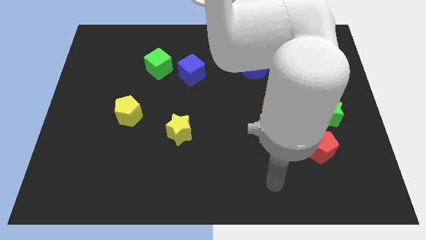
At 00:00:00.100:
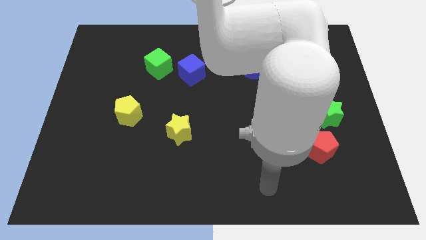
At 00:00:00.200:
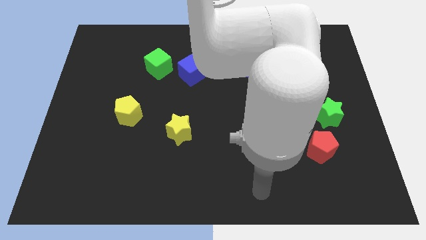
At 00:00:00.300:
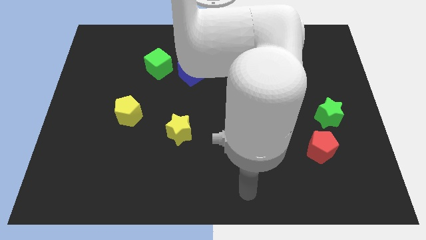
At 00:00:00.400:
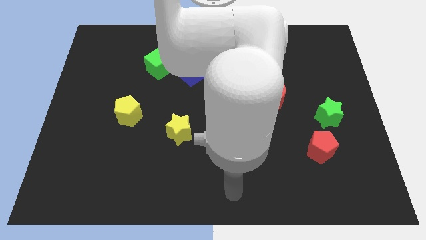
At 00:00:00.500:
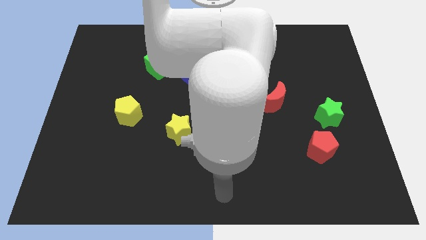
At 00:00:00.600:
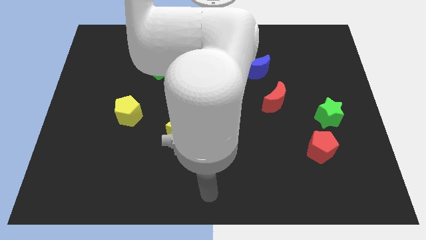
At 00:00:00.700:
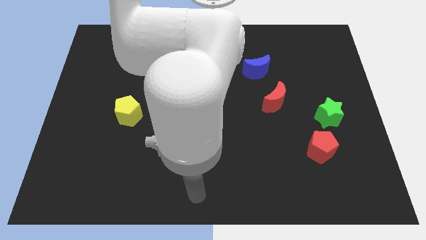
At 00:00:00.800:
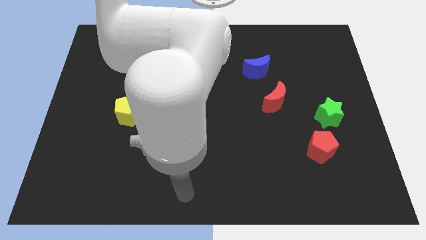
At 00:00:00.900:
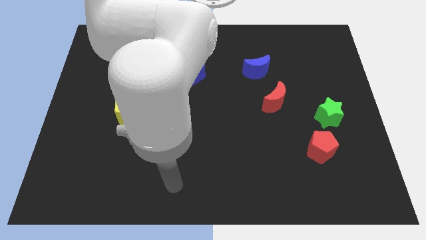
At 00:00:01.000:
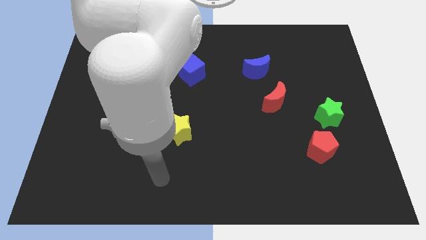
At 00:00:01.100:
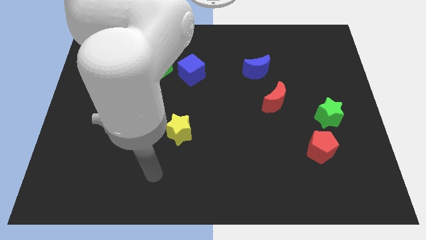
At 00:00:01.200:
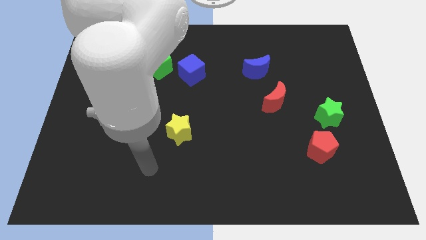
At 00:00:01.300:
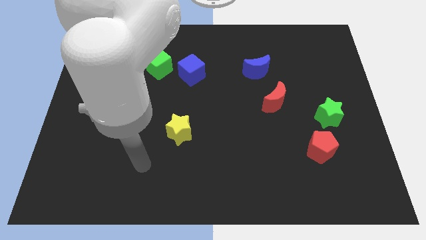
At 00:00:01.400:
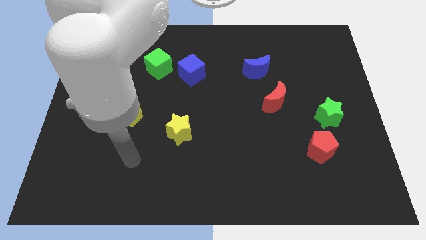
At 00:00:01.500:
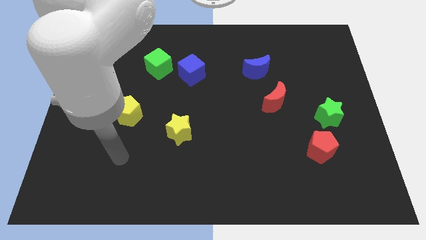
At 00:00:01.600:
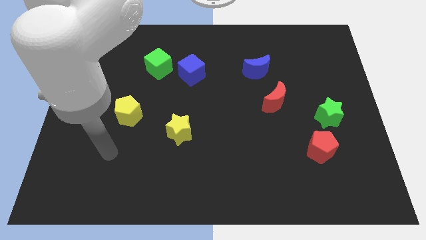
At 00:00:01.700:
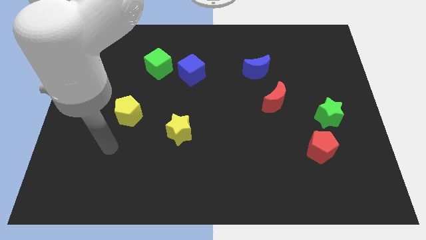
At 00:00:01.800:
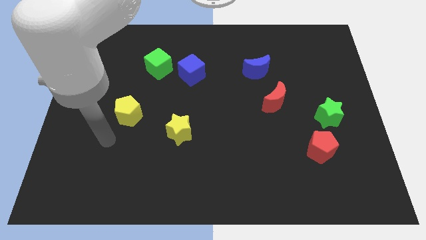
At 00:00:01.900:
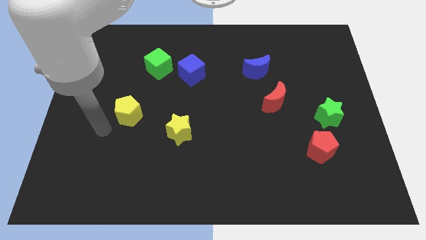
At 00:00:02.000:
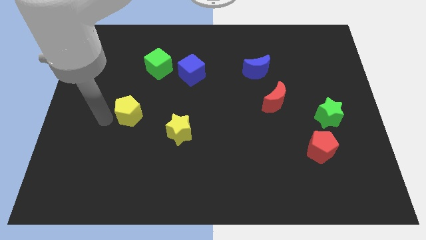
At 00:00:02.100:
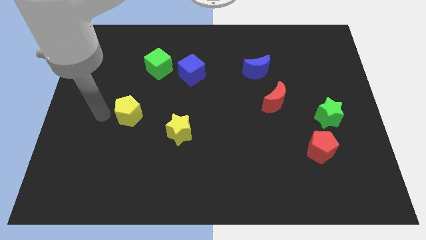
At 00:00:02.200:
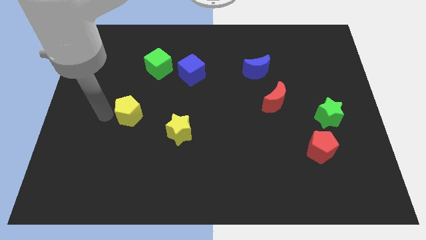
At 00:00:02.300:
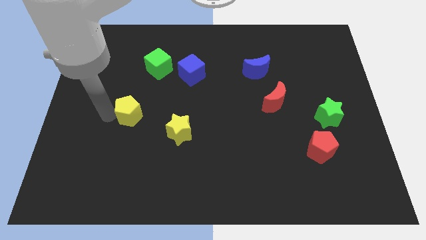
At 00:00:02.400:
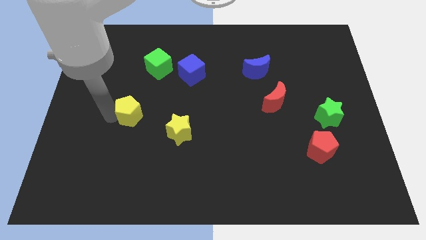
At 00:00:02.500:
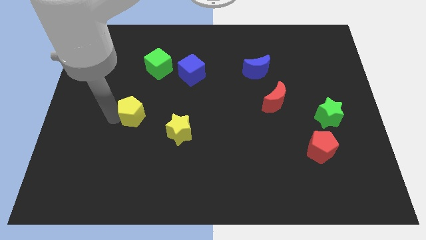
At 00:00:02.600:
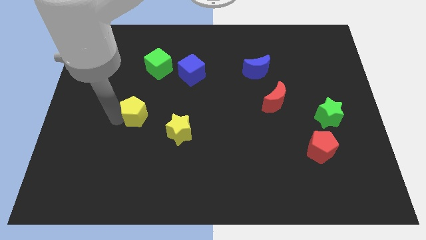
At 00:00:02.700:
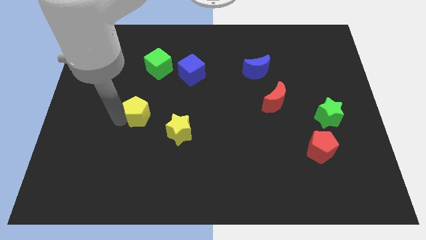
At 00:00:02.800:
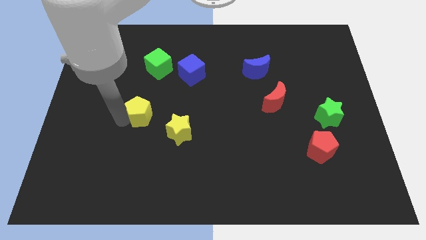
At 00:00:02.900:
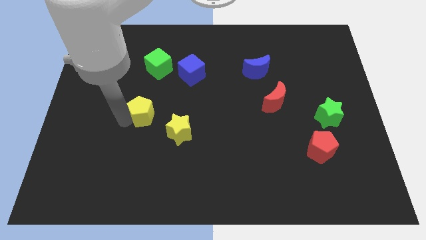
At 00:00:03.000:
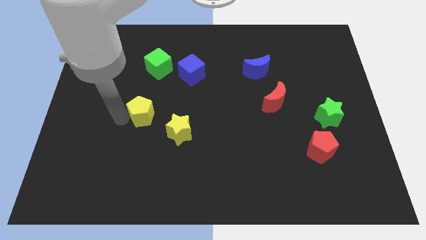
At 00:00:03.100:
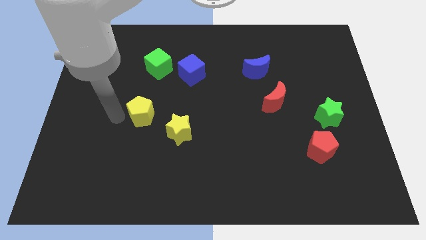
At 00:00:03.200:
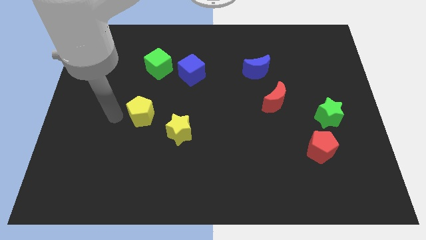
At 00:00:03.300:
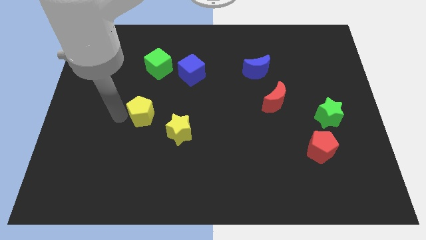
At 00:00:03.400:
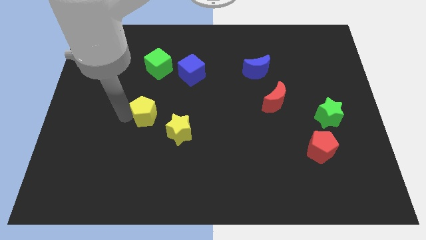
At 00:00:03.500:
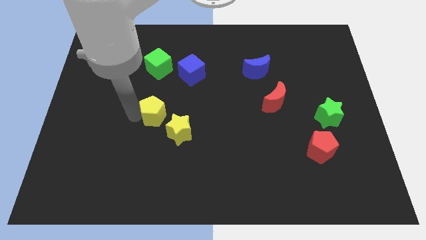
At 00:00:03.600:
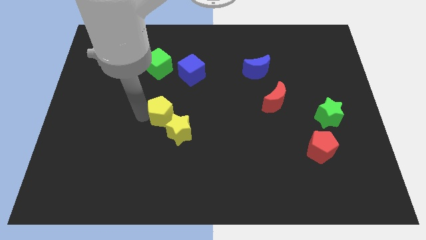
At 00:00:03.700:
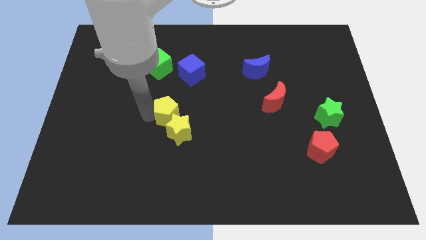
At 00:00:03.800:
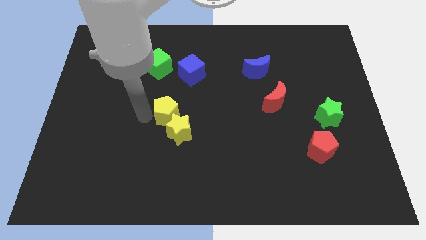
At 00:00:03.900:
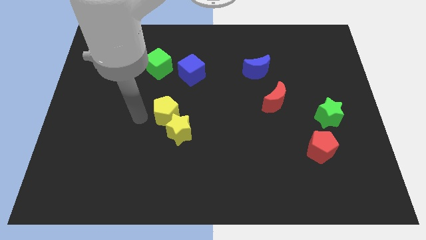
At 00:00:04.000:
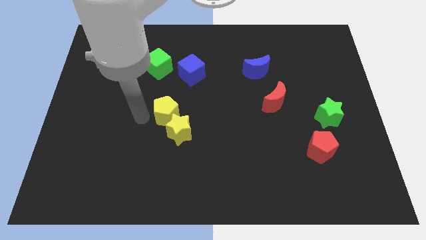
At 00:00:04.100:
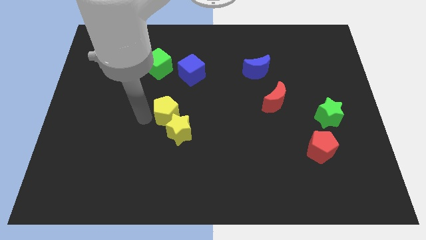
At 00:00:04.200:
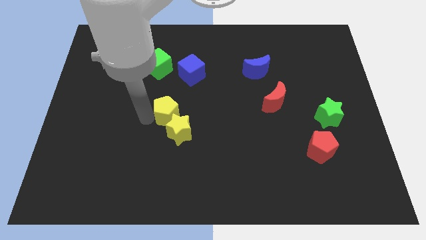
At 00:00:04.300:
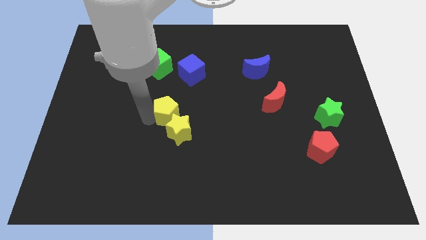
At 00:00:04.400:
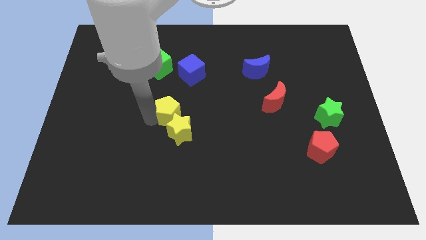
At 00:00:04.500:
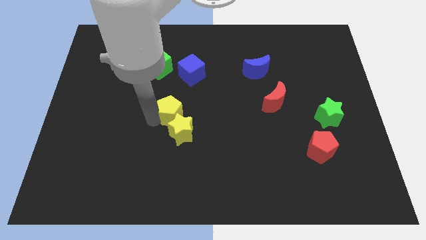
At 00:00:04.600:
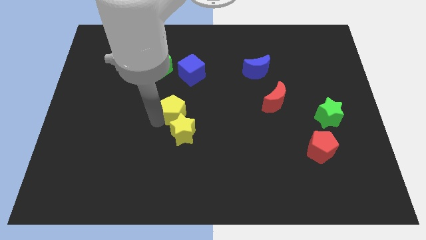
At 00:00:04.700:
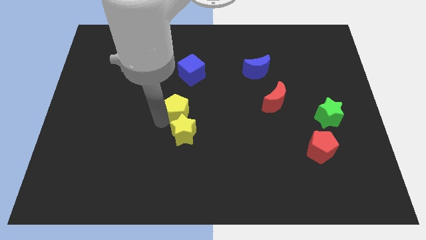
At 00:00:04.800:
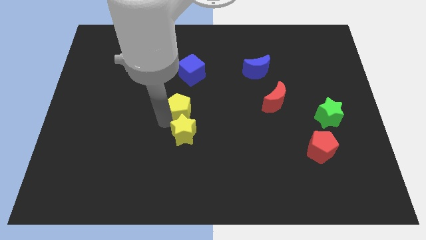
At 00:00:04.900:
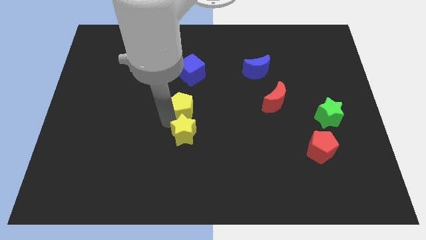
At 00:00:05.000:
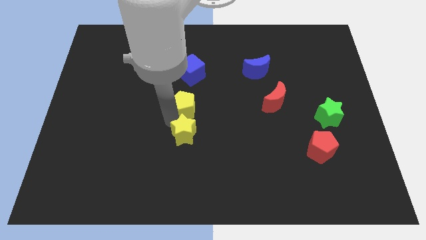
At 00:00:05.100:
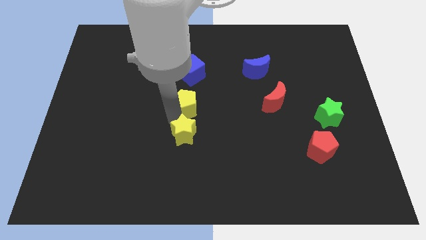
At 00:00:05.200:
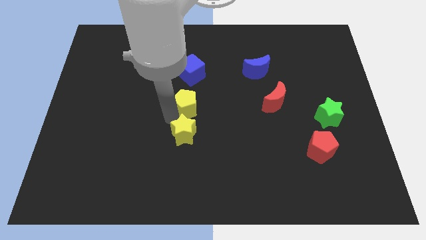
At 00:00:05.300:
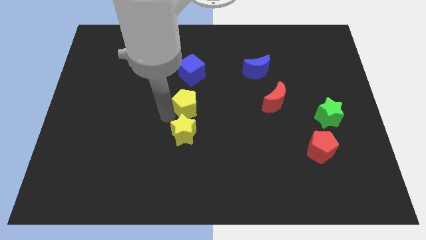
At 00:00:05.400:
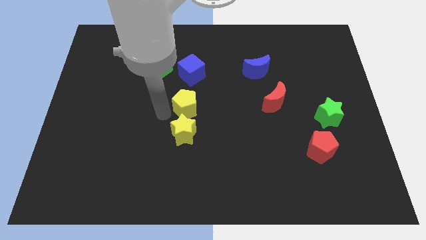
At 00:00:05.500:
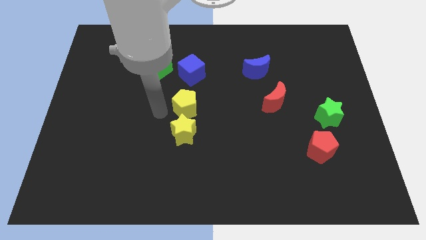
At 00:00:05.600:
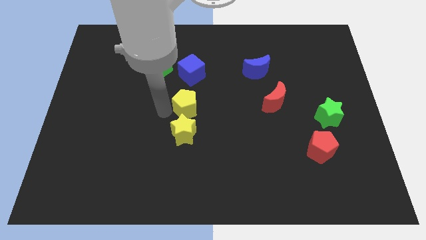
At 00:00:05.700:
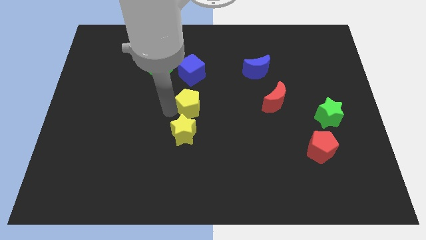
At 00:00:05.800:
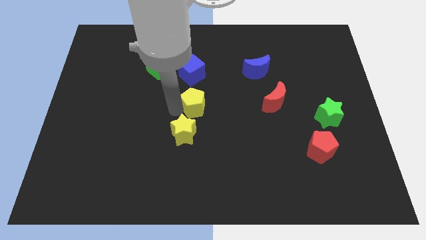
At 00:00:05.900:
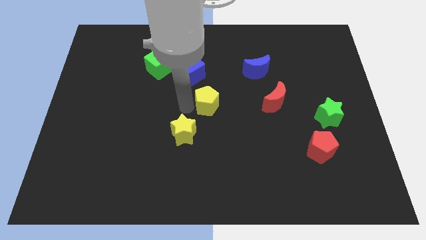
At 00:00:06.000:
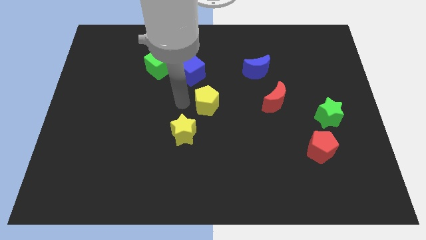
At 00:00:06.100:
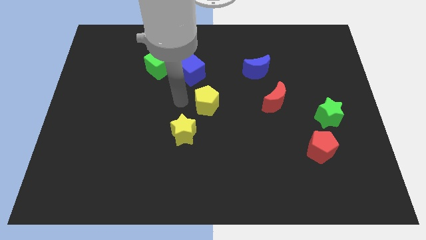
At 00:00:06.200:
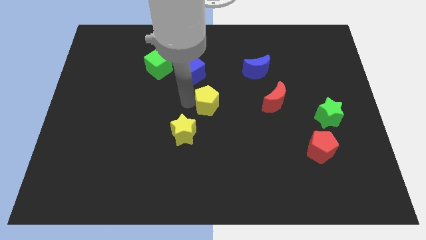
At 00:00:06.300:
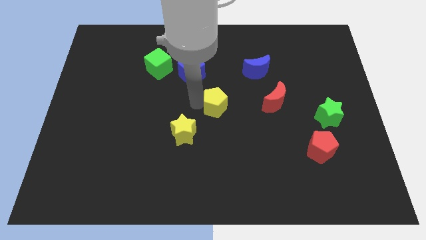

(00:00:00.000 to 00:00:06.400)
move the yellow pentagon to the right

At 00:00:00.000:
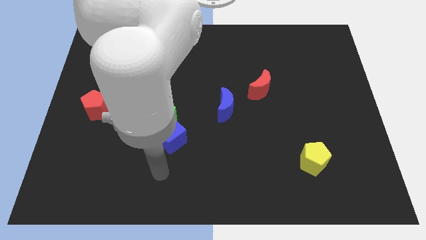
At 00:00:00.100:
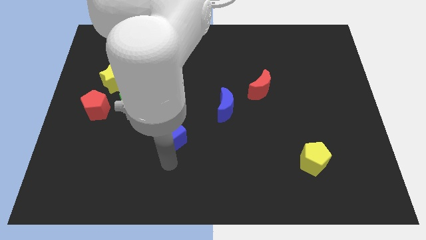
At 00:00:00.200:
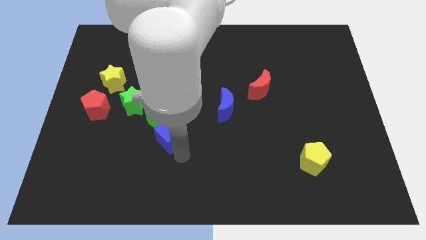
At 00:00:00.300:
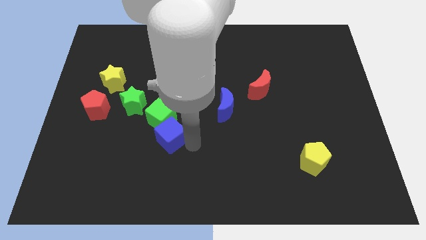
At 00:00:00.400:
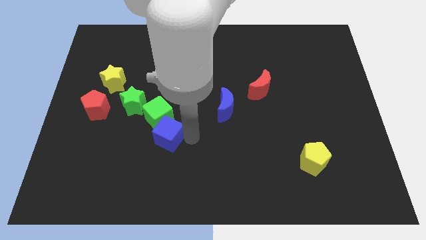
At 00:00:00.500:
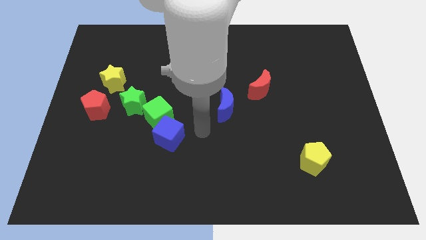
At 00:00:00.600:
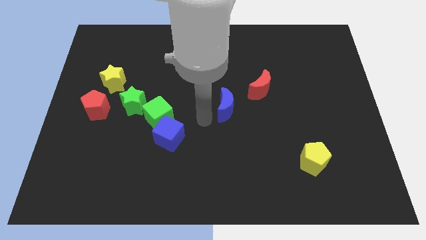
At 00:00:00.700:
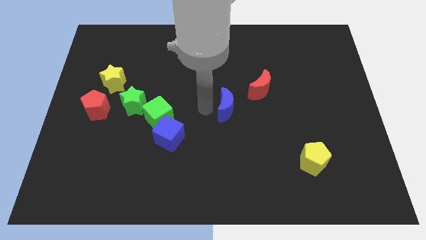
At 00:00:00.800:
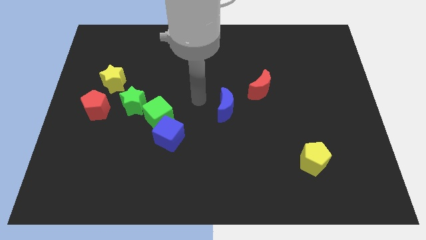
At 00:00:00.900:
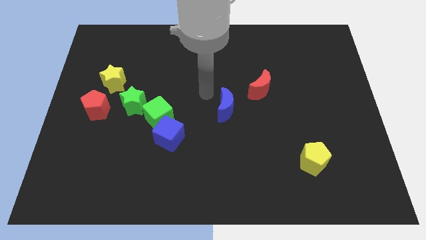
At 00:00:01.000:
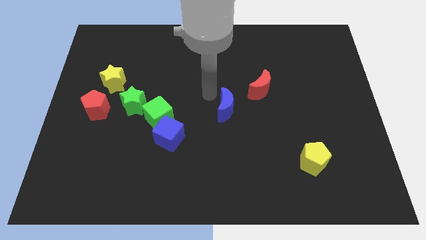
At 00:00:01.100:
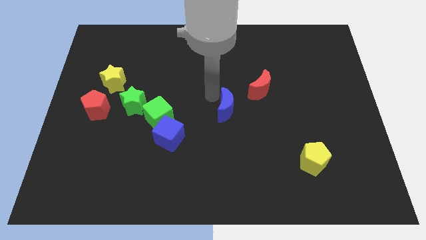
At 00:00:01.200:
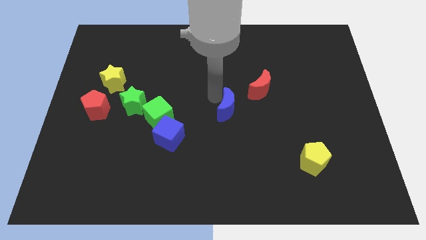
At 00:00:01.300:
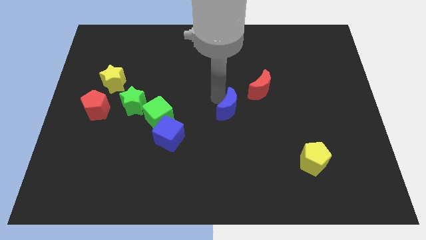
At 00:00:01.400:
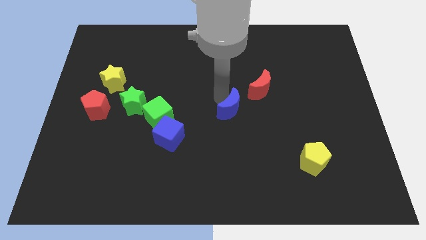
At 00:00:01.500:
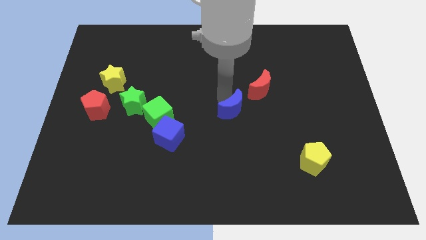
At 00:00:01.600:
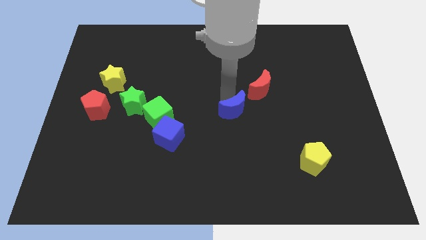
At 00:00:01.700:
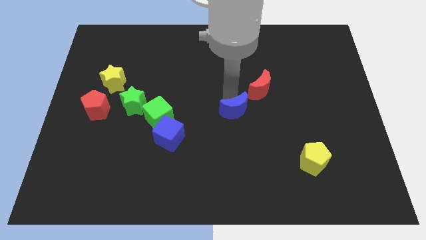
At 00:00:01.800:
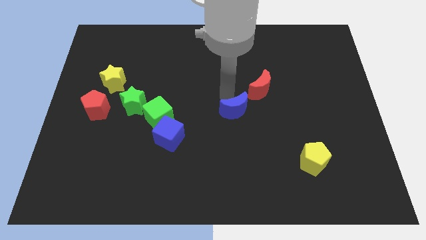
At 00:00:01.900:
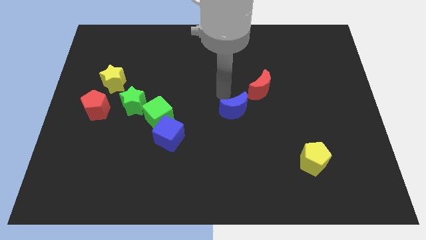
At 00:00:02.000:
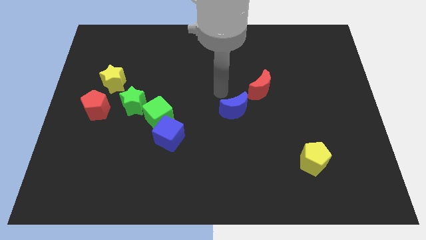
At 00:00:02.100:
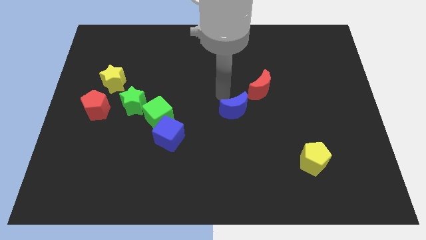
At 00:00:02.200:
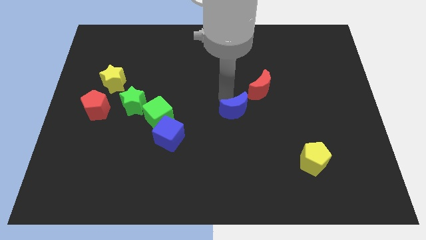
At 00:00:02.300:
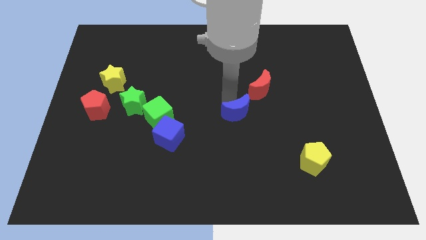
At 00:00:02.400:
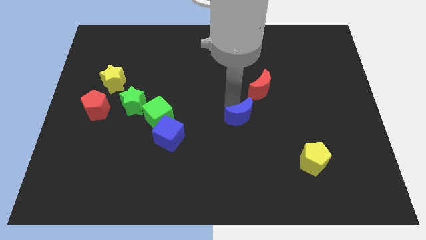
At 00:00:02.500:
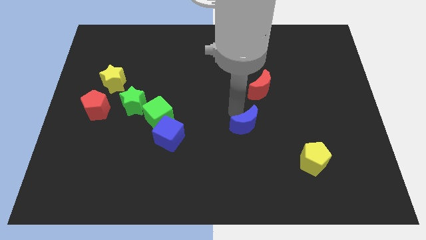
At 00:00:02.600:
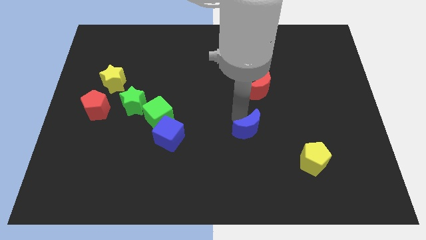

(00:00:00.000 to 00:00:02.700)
slightly slide the blue moon diagonally downwards and to the right
